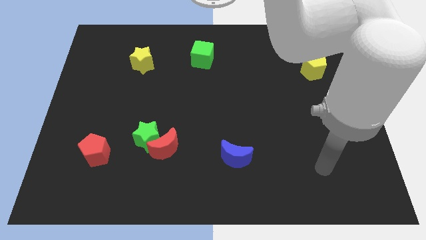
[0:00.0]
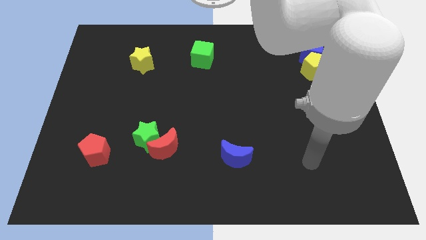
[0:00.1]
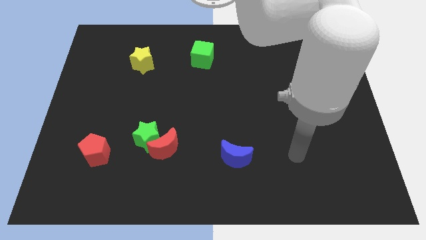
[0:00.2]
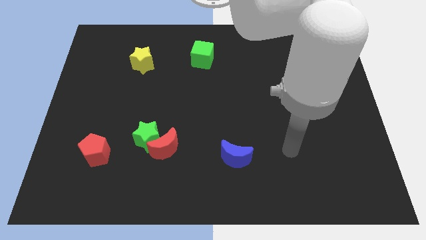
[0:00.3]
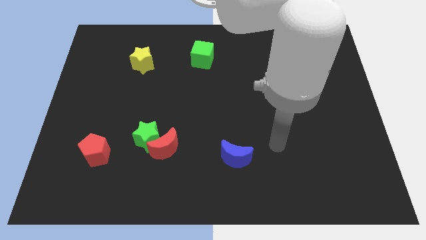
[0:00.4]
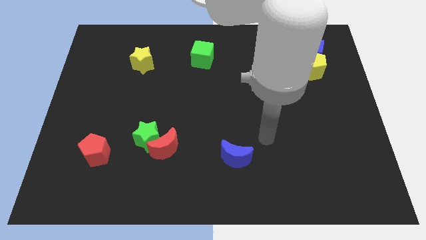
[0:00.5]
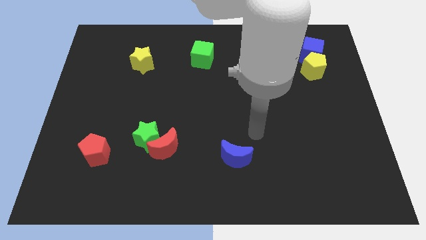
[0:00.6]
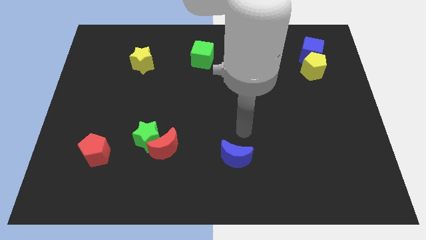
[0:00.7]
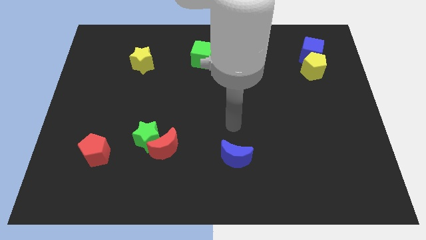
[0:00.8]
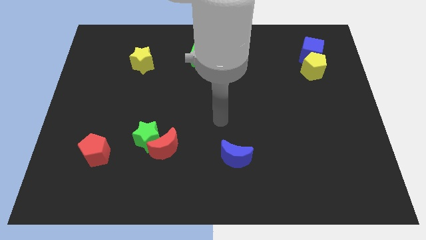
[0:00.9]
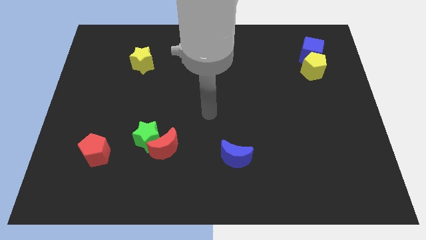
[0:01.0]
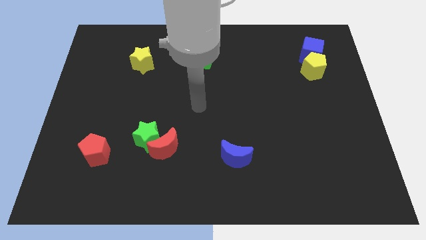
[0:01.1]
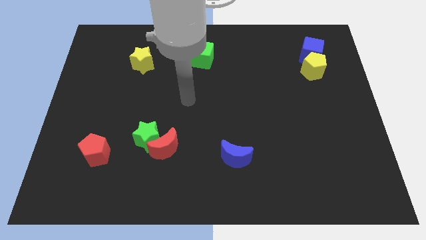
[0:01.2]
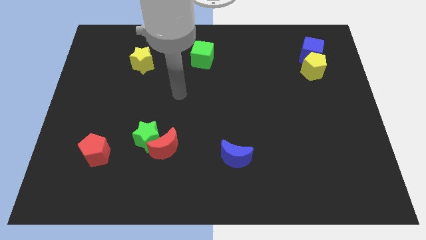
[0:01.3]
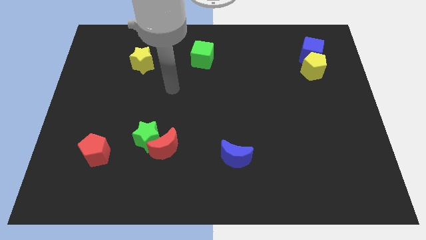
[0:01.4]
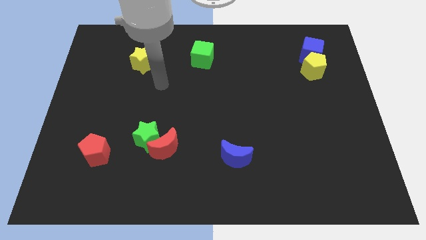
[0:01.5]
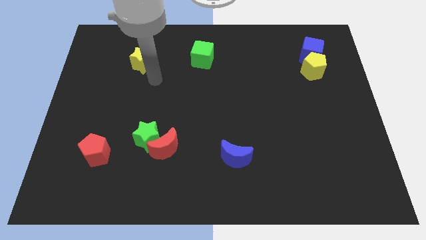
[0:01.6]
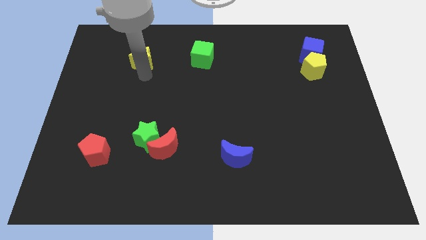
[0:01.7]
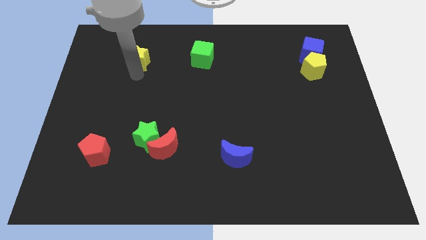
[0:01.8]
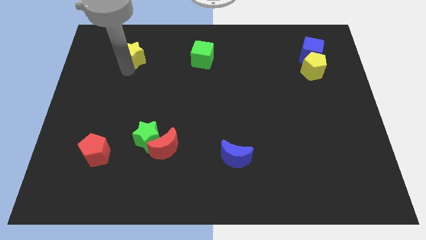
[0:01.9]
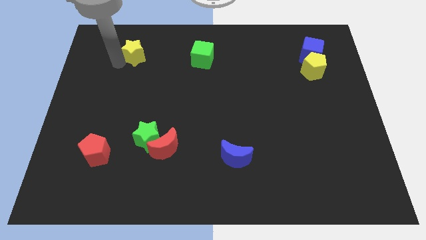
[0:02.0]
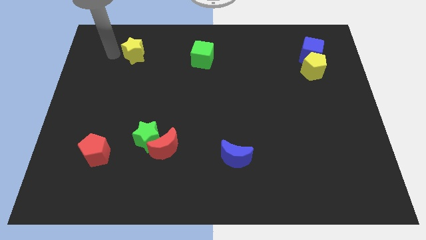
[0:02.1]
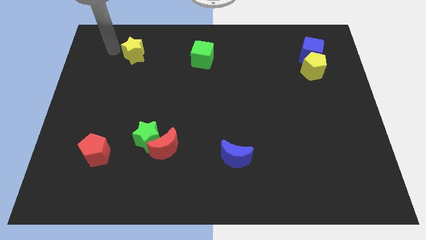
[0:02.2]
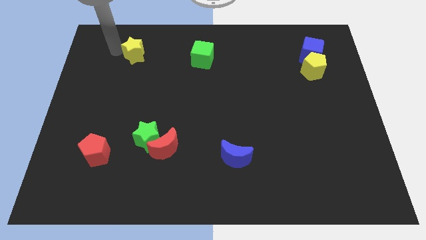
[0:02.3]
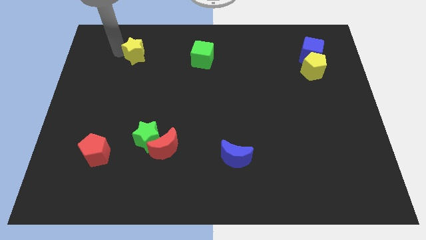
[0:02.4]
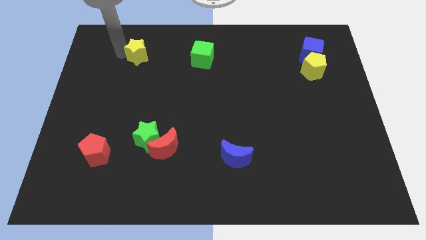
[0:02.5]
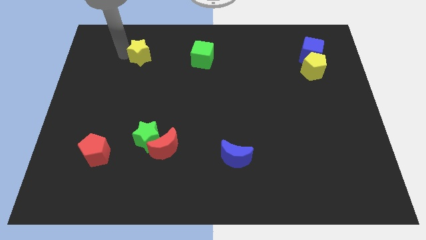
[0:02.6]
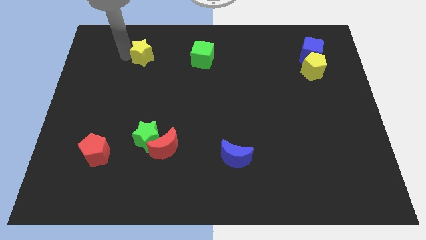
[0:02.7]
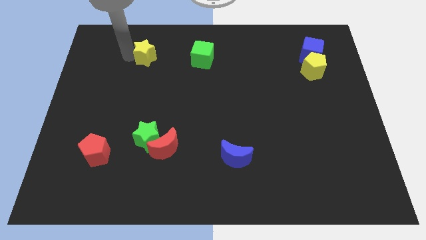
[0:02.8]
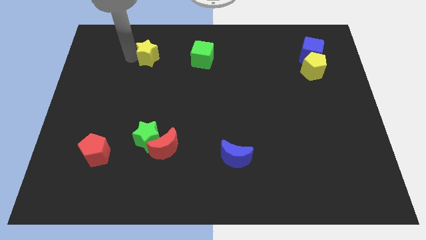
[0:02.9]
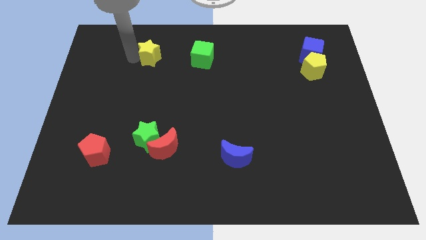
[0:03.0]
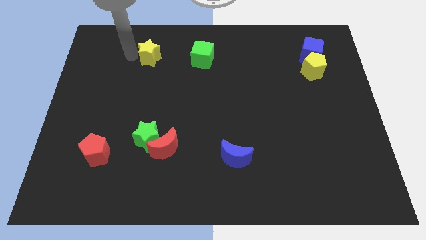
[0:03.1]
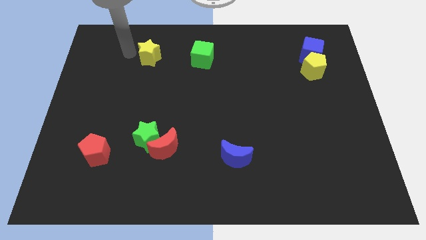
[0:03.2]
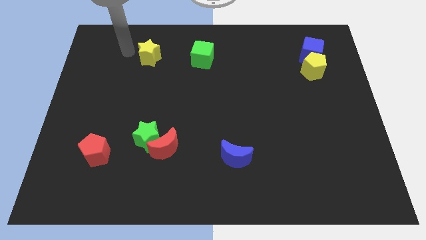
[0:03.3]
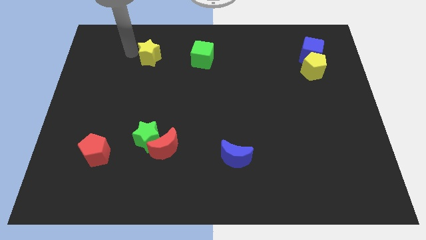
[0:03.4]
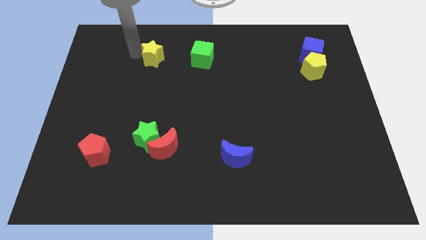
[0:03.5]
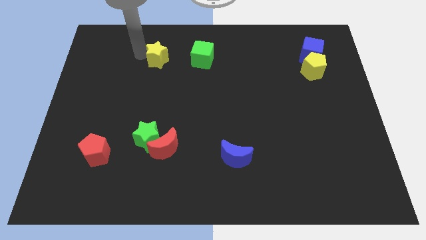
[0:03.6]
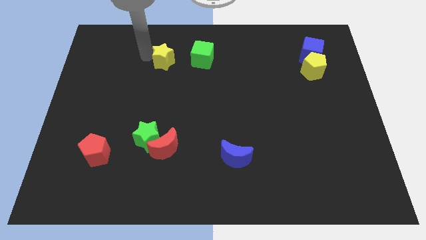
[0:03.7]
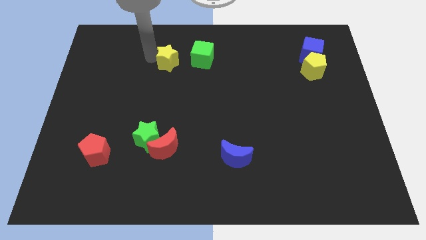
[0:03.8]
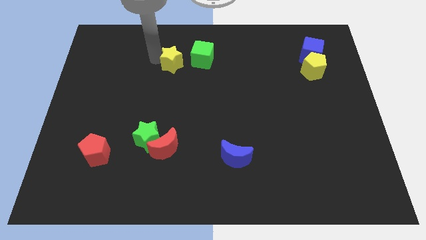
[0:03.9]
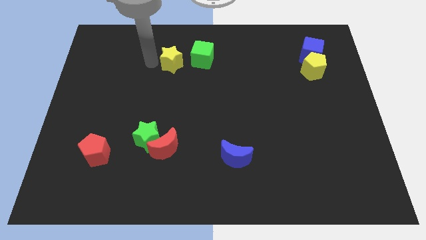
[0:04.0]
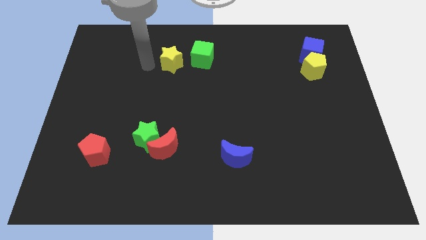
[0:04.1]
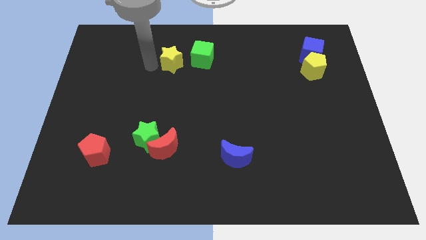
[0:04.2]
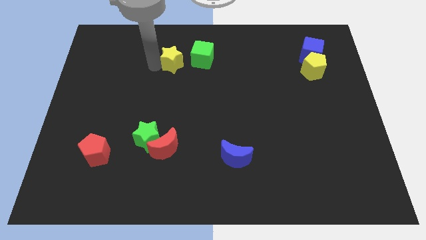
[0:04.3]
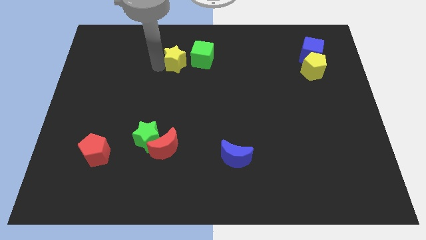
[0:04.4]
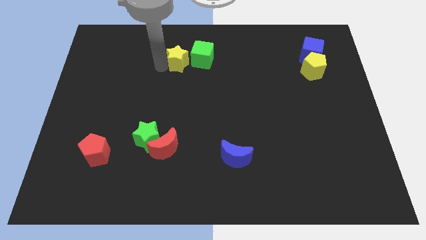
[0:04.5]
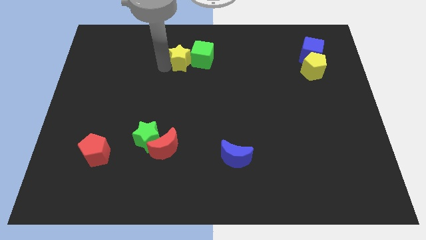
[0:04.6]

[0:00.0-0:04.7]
move the yellow star to the green cube

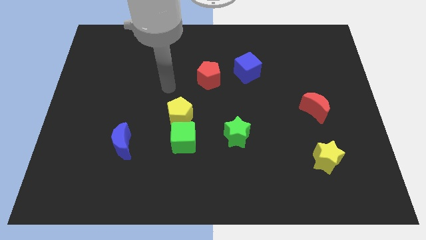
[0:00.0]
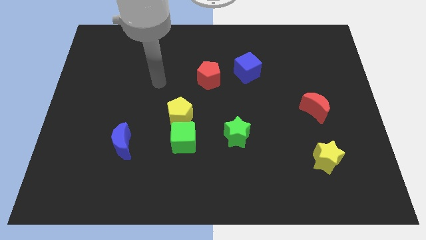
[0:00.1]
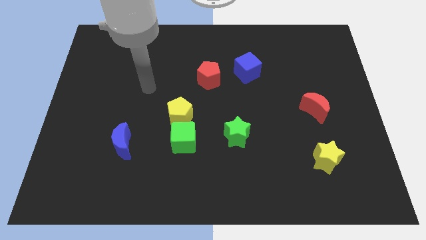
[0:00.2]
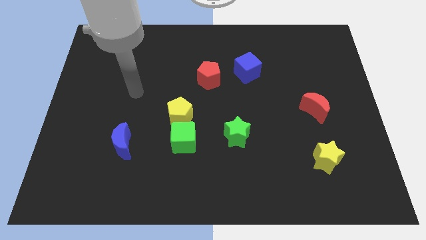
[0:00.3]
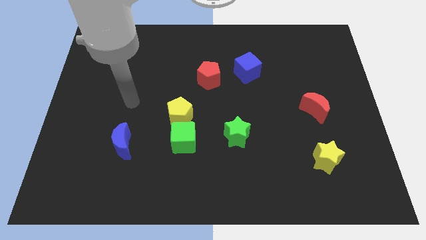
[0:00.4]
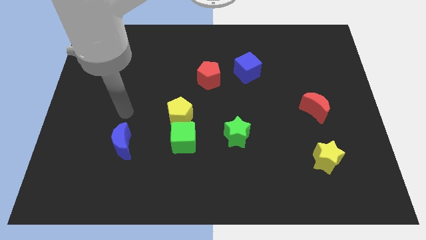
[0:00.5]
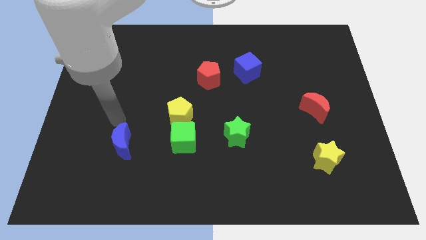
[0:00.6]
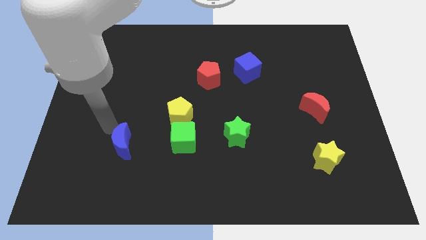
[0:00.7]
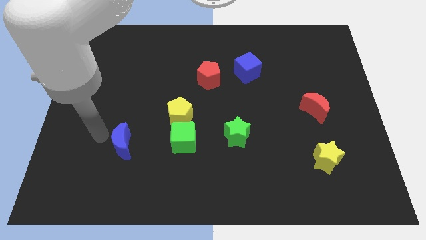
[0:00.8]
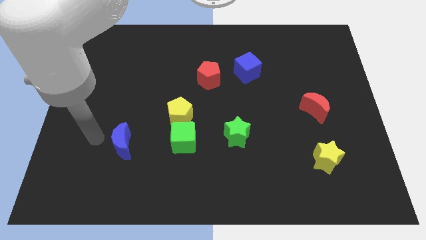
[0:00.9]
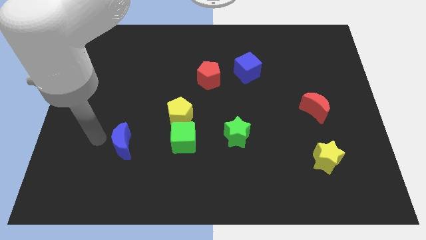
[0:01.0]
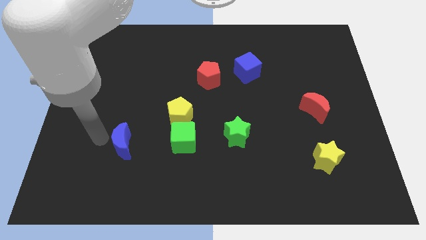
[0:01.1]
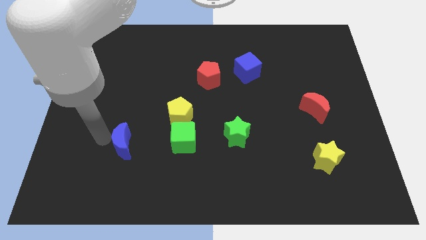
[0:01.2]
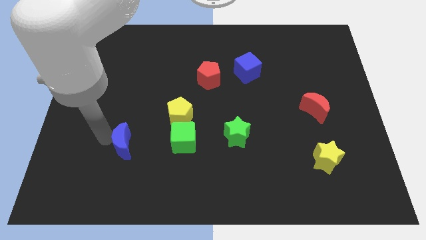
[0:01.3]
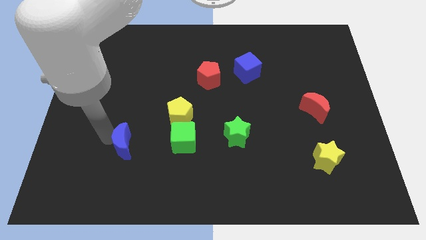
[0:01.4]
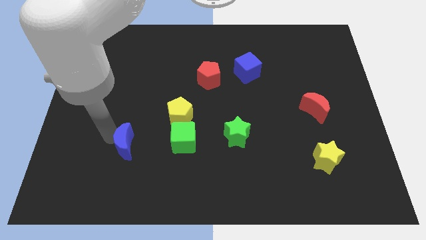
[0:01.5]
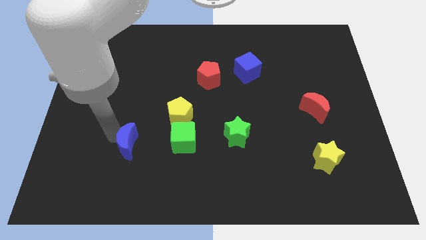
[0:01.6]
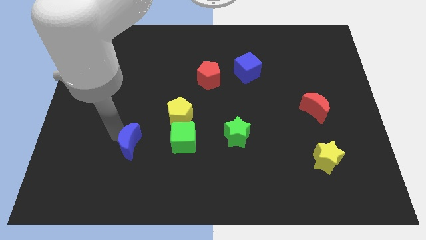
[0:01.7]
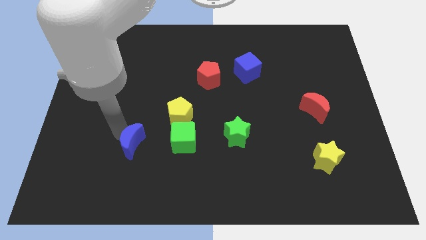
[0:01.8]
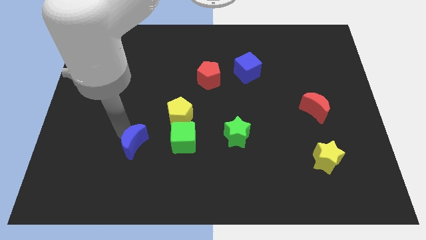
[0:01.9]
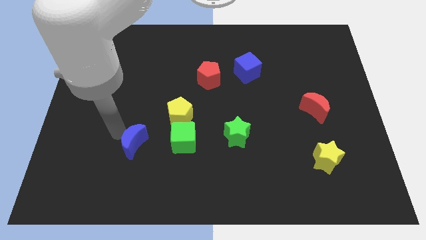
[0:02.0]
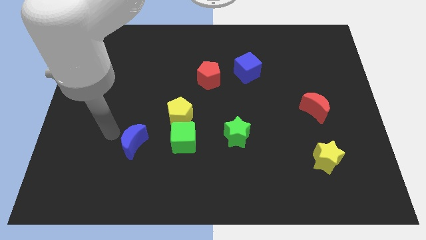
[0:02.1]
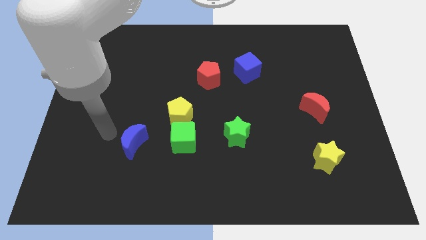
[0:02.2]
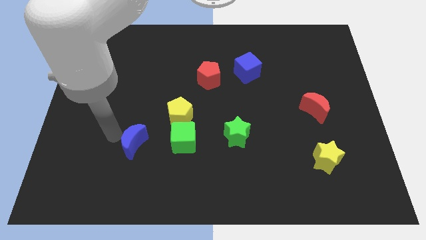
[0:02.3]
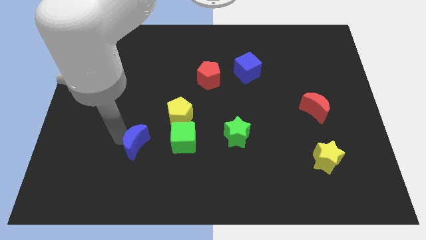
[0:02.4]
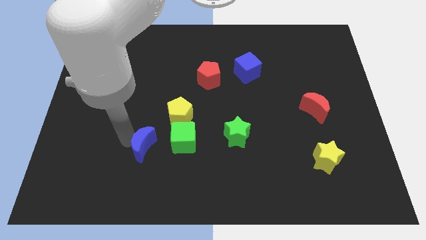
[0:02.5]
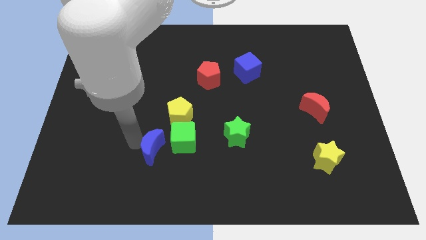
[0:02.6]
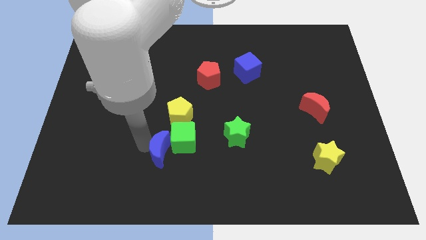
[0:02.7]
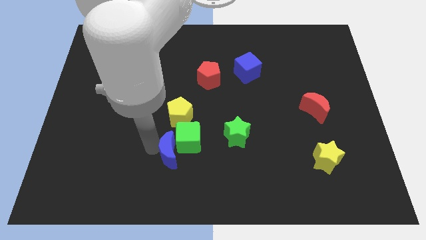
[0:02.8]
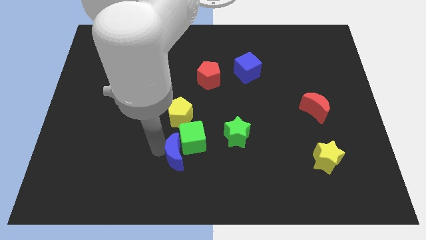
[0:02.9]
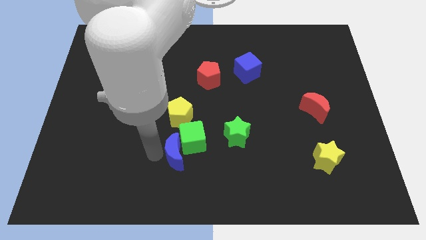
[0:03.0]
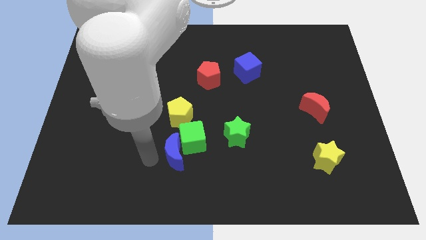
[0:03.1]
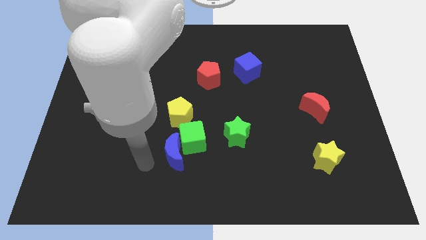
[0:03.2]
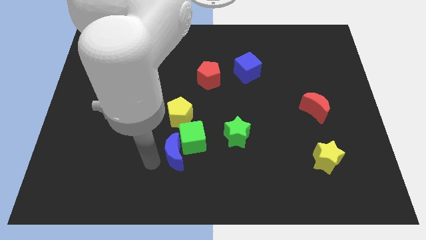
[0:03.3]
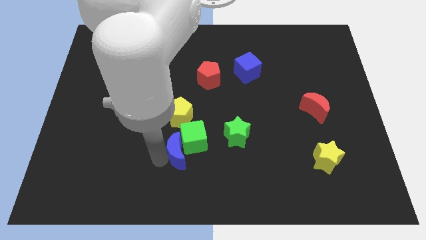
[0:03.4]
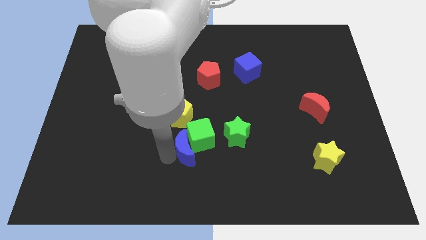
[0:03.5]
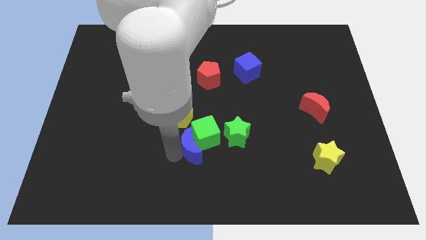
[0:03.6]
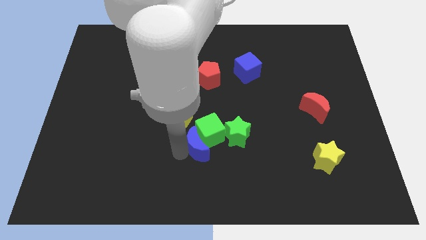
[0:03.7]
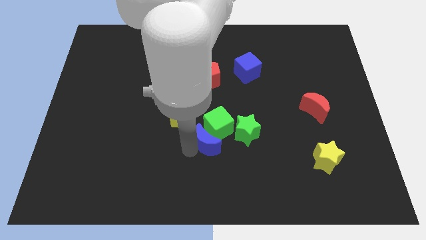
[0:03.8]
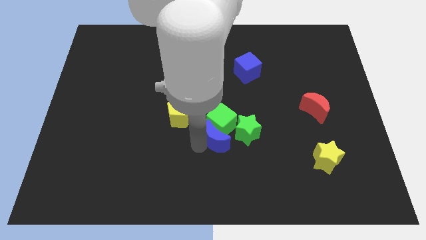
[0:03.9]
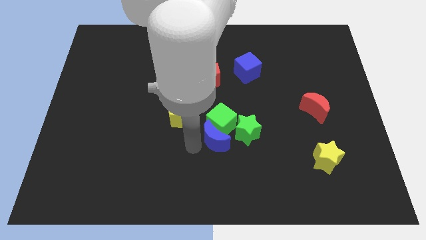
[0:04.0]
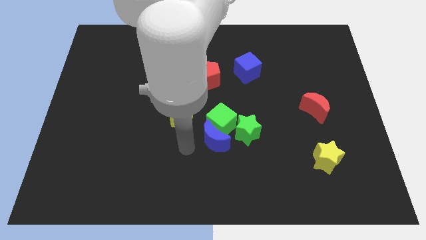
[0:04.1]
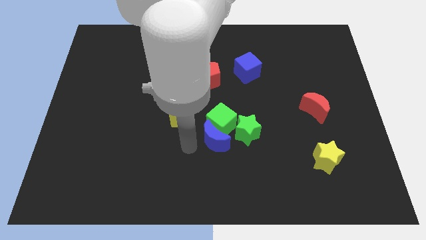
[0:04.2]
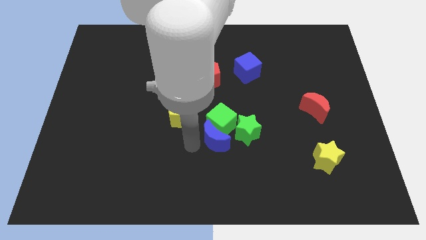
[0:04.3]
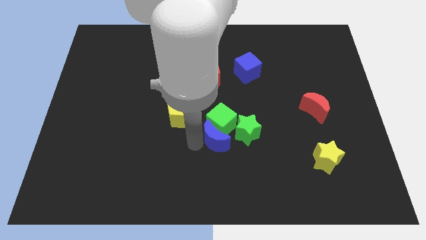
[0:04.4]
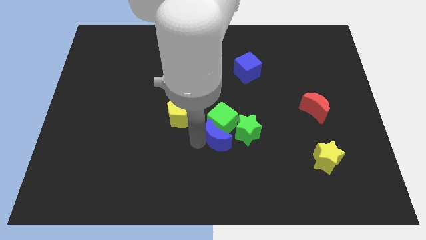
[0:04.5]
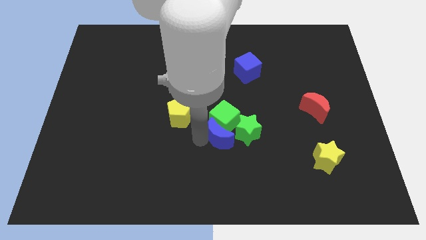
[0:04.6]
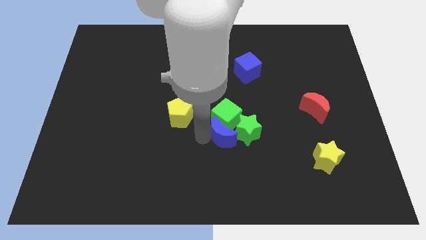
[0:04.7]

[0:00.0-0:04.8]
slide the blue moon to the green star
